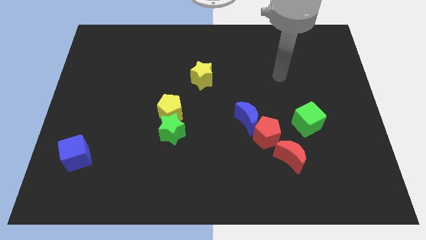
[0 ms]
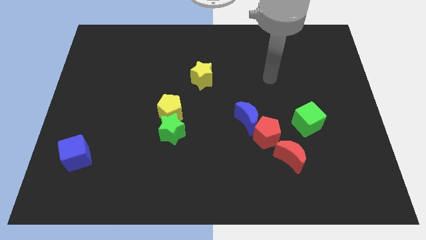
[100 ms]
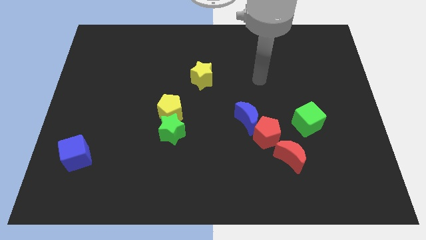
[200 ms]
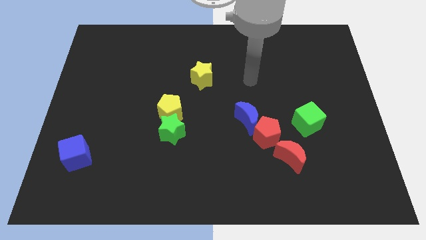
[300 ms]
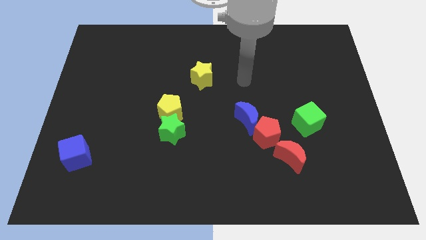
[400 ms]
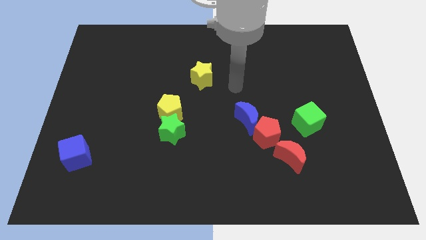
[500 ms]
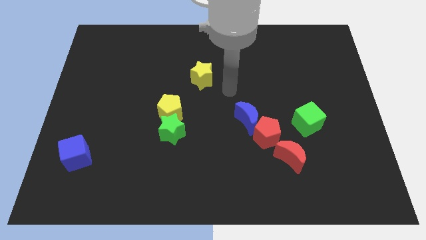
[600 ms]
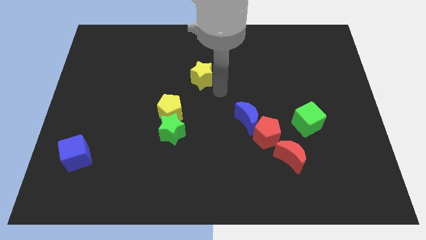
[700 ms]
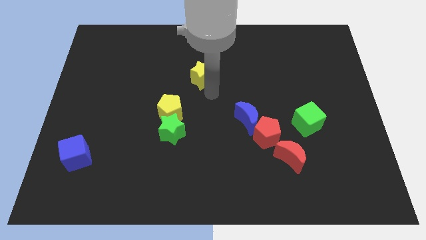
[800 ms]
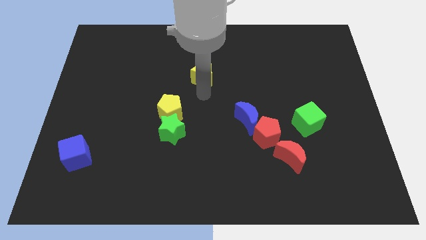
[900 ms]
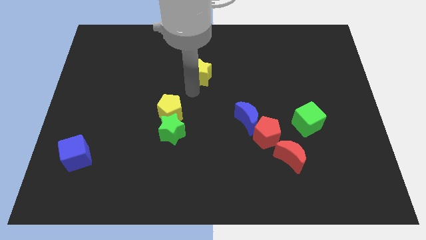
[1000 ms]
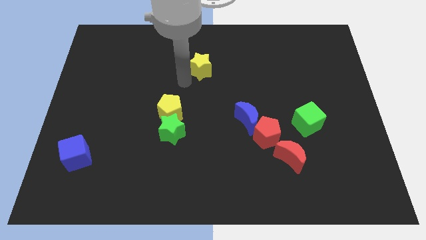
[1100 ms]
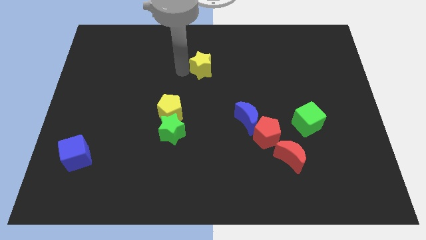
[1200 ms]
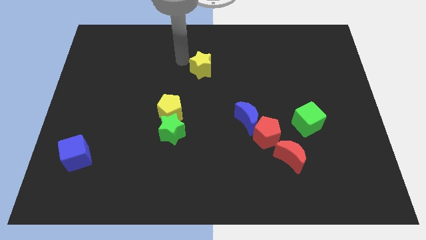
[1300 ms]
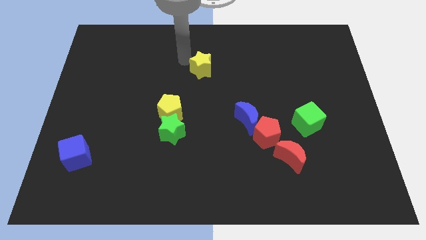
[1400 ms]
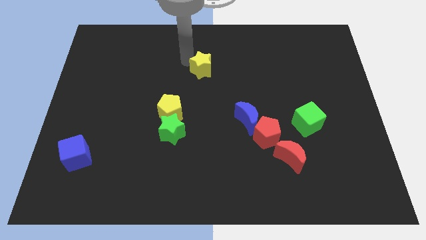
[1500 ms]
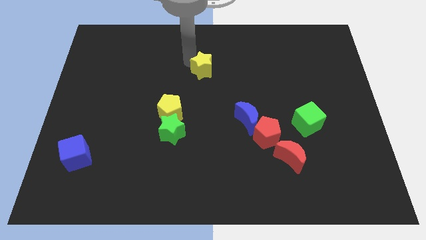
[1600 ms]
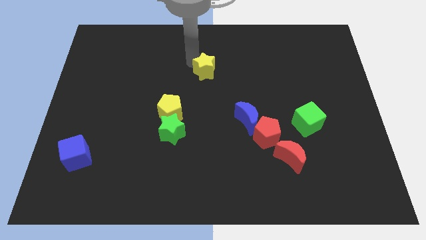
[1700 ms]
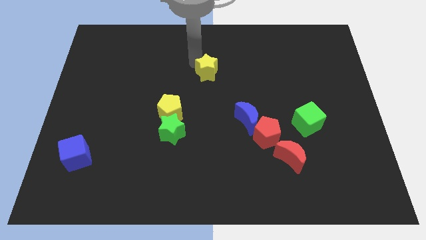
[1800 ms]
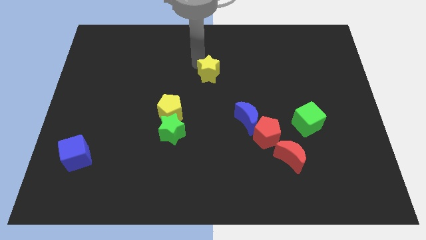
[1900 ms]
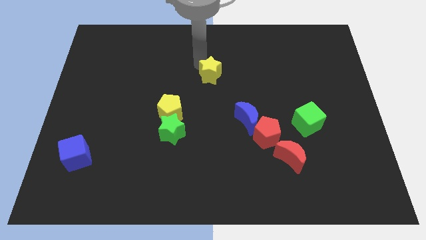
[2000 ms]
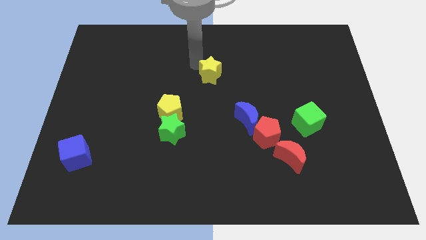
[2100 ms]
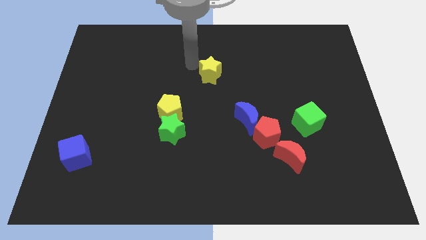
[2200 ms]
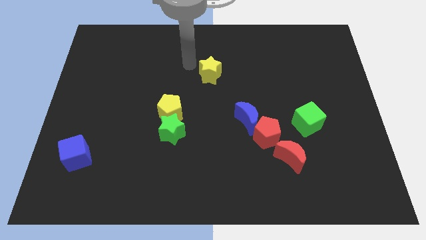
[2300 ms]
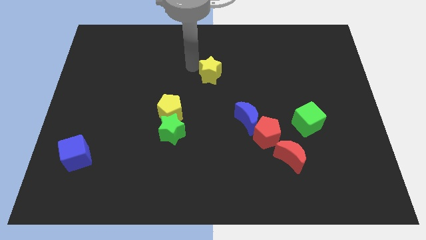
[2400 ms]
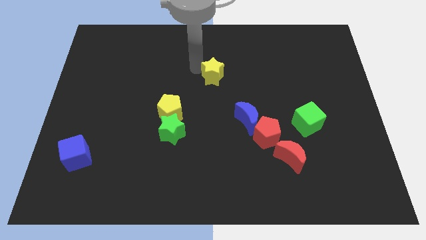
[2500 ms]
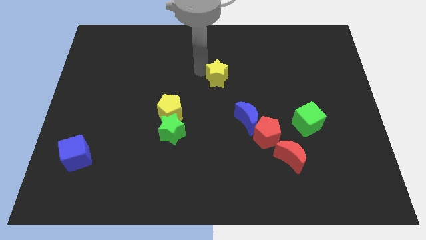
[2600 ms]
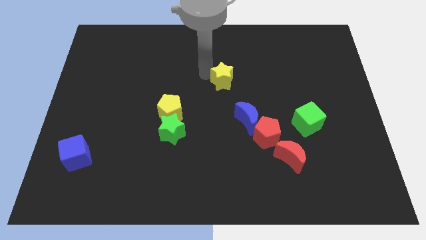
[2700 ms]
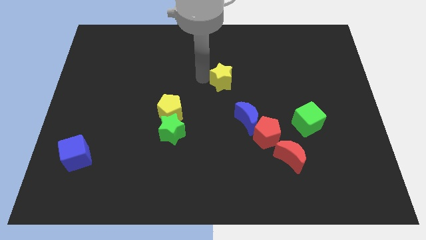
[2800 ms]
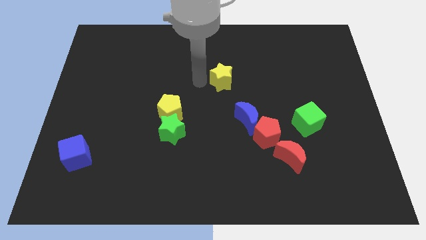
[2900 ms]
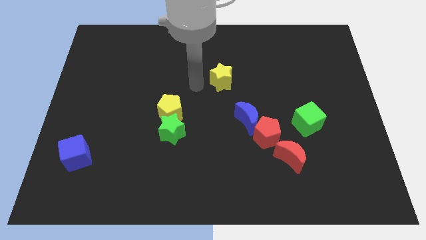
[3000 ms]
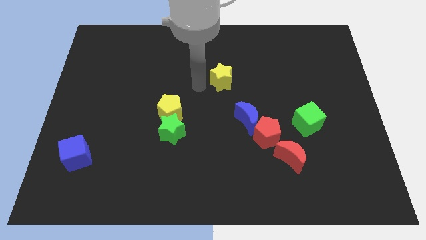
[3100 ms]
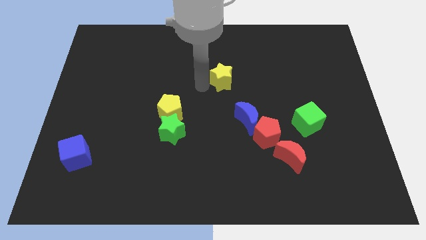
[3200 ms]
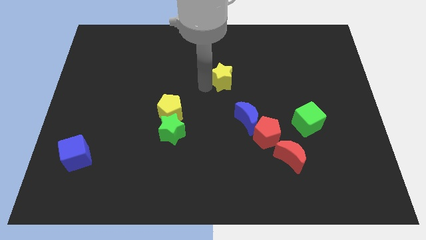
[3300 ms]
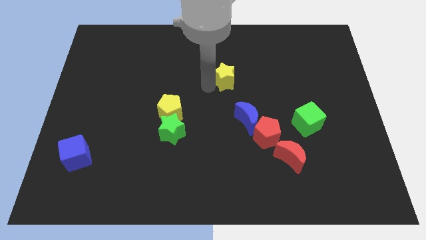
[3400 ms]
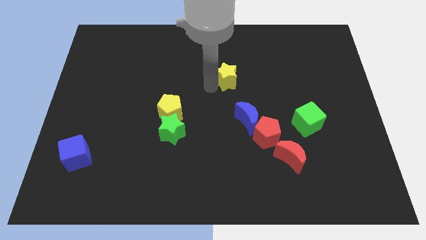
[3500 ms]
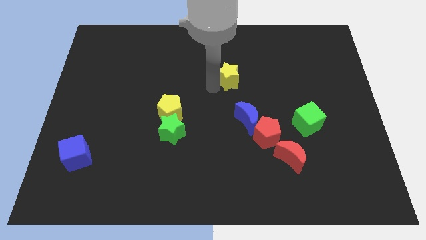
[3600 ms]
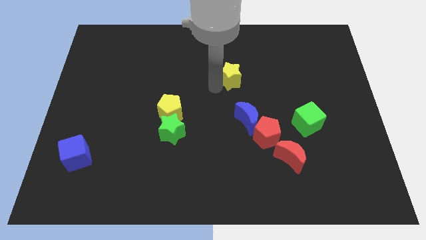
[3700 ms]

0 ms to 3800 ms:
slide the yellow star to the right a bit

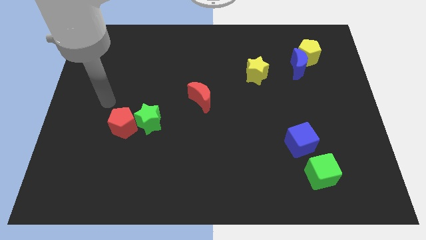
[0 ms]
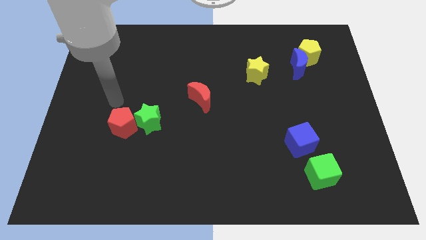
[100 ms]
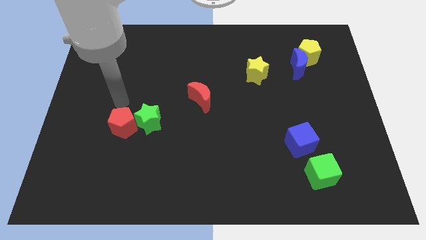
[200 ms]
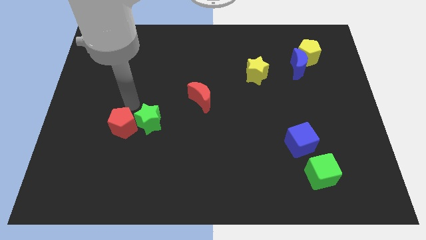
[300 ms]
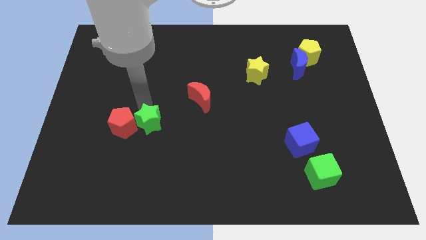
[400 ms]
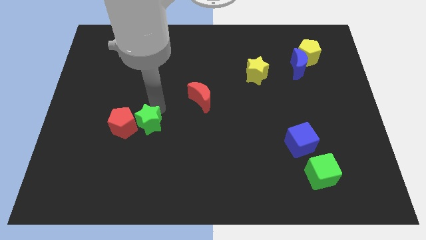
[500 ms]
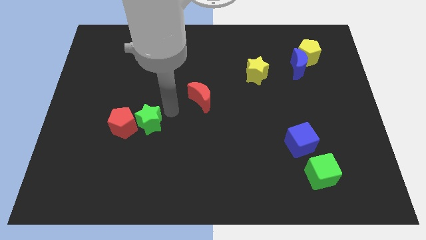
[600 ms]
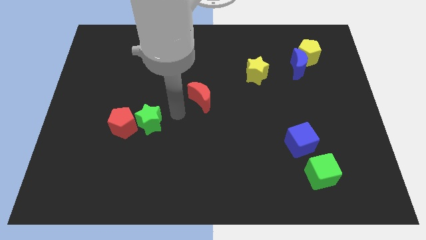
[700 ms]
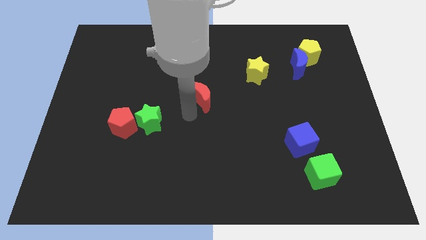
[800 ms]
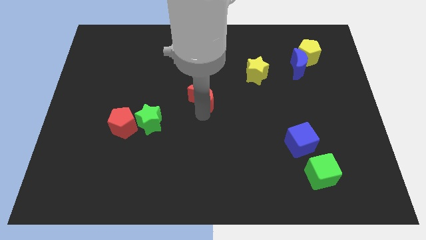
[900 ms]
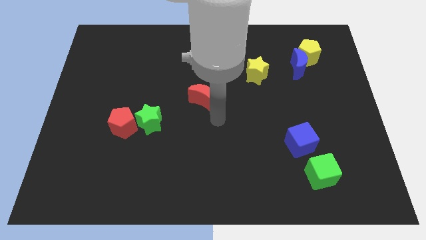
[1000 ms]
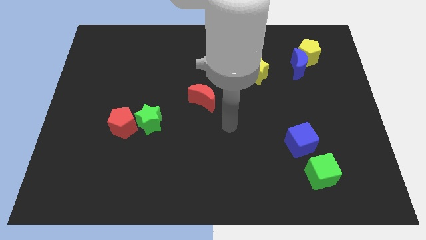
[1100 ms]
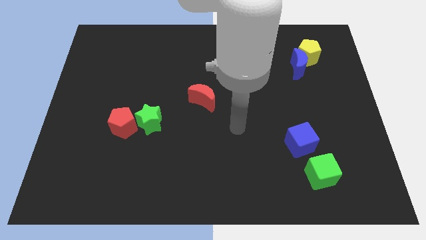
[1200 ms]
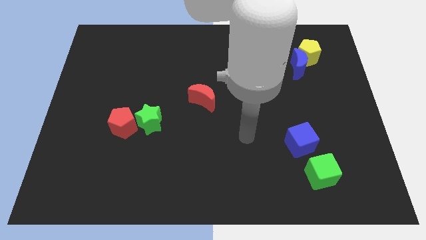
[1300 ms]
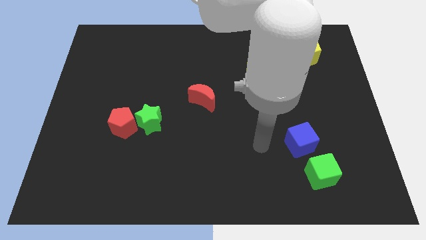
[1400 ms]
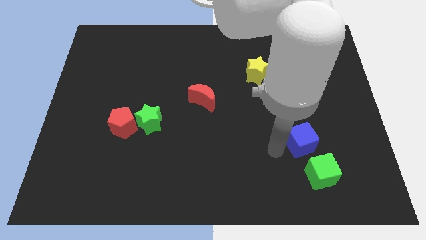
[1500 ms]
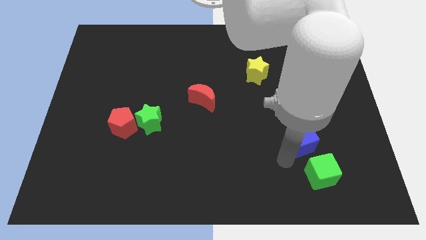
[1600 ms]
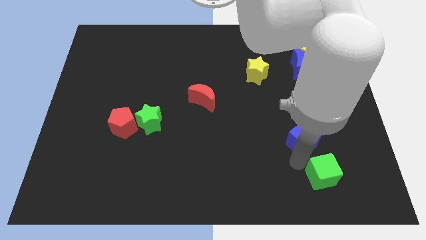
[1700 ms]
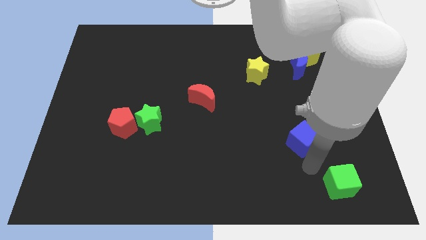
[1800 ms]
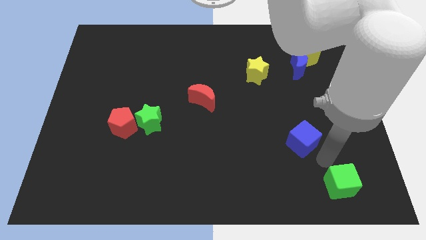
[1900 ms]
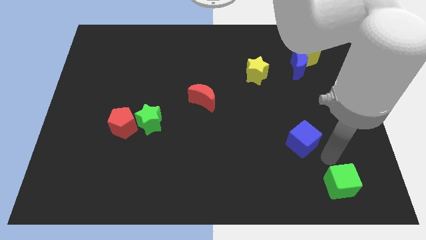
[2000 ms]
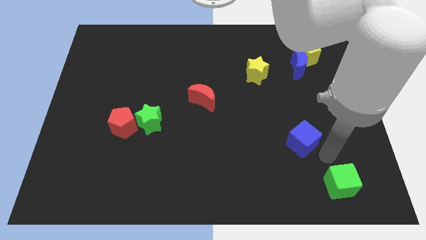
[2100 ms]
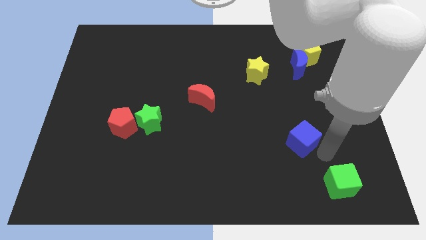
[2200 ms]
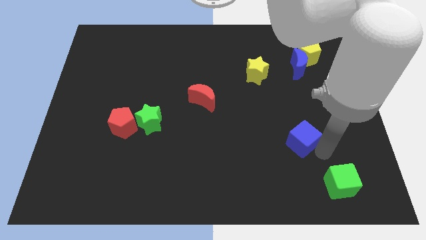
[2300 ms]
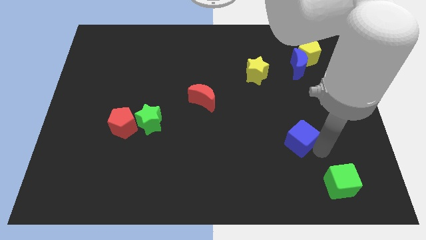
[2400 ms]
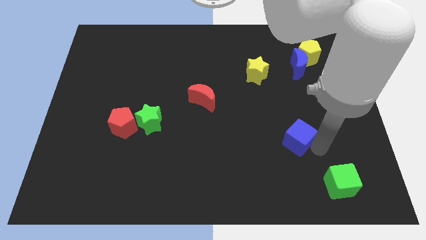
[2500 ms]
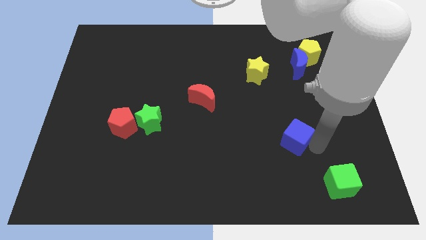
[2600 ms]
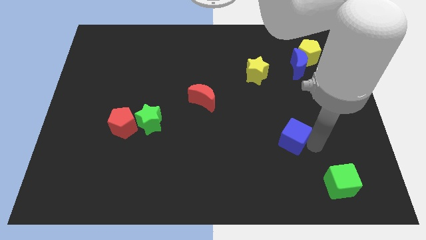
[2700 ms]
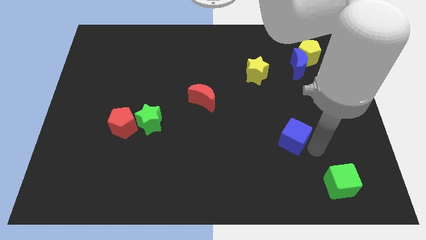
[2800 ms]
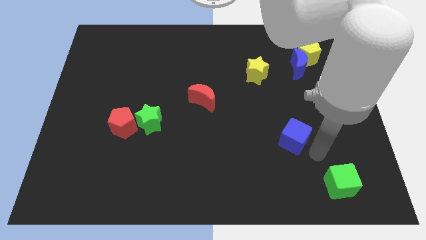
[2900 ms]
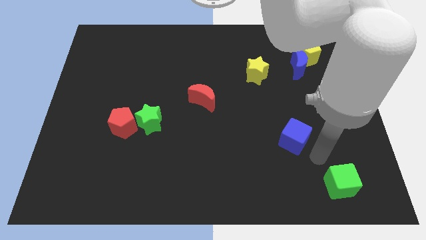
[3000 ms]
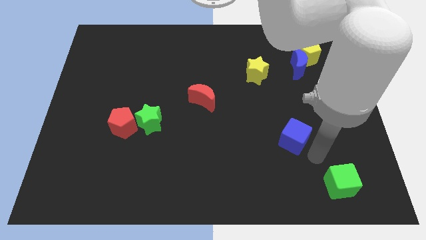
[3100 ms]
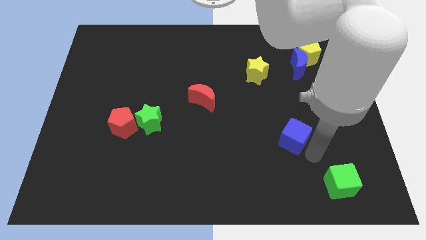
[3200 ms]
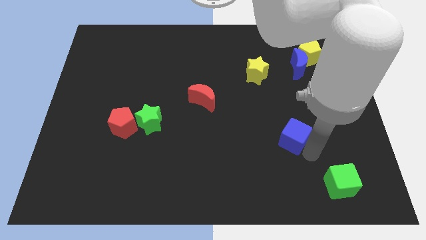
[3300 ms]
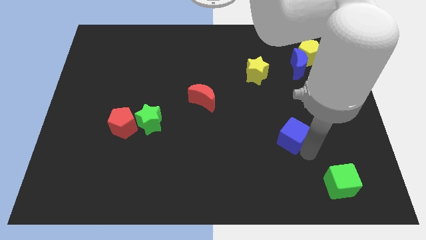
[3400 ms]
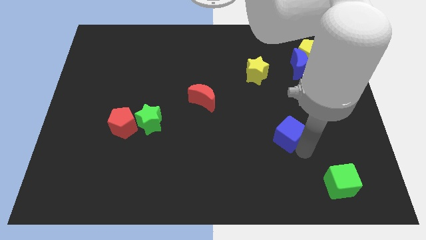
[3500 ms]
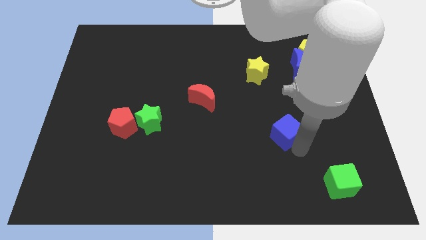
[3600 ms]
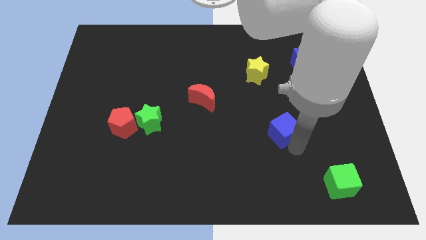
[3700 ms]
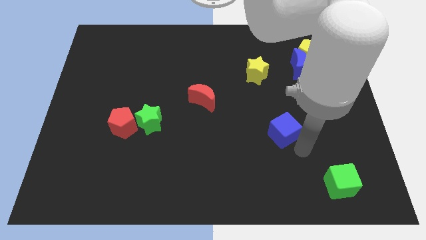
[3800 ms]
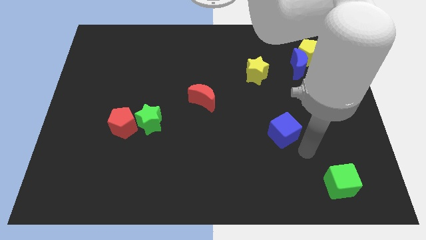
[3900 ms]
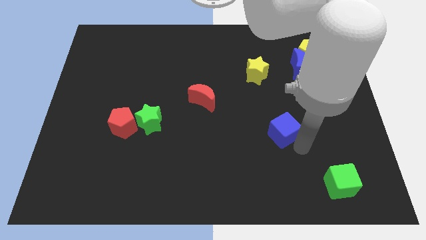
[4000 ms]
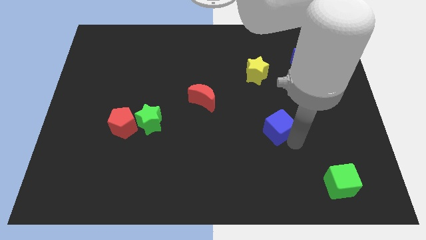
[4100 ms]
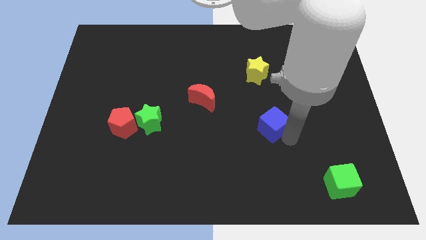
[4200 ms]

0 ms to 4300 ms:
push the blue cube a little bit up and to the left

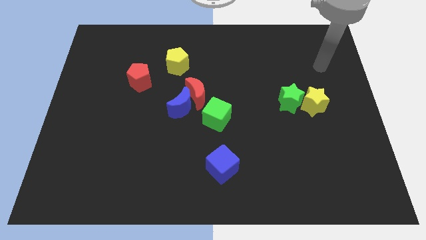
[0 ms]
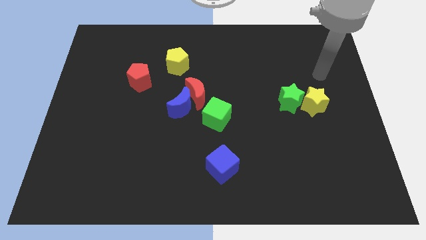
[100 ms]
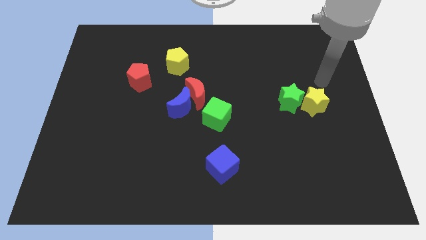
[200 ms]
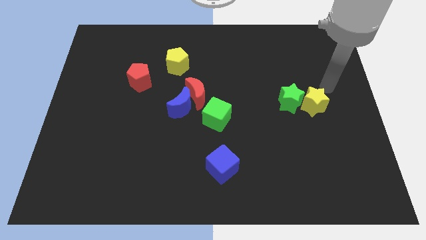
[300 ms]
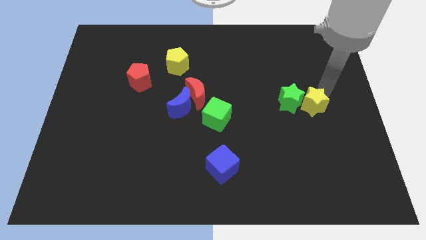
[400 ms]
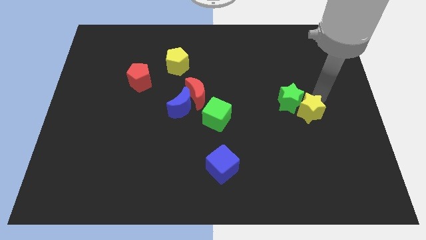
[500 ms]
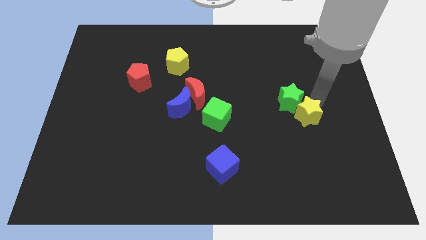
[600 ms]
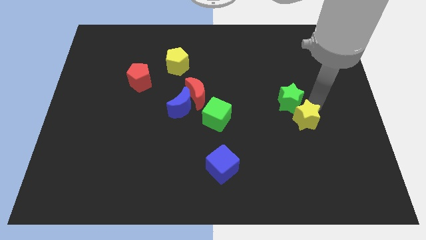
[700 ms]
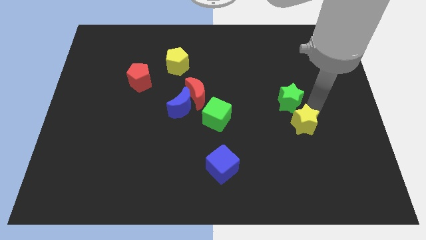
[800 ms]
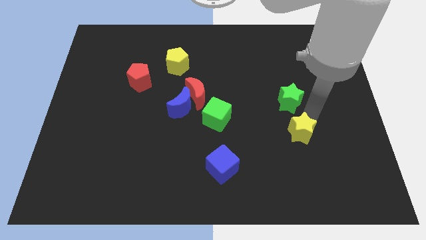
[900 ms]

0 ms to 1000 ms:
slightly move the yellow star downwards and to the left diagonally
